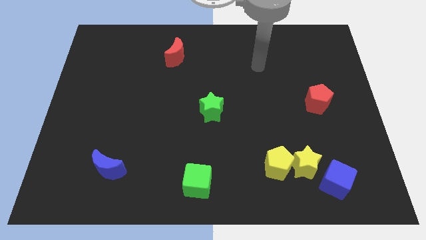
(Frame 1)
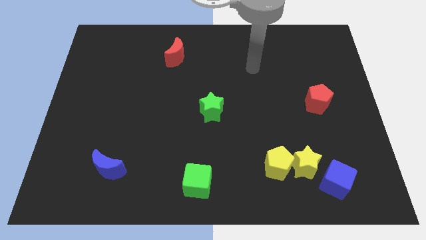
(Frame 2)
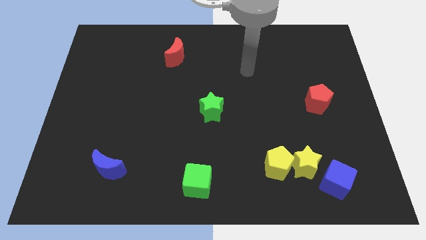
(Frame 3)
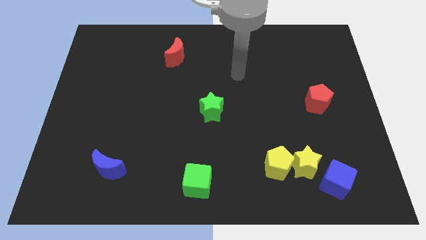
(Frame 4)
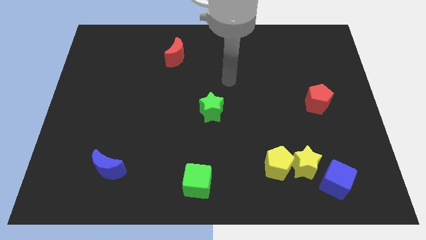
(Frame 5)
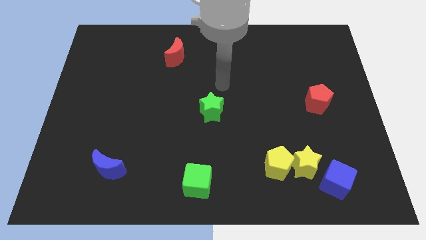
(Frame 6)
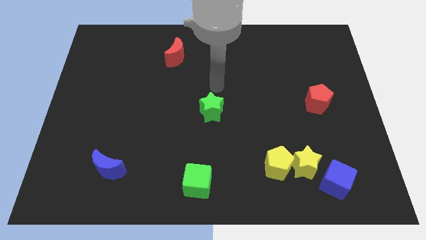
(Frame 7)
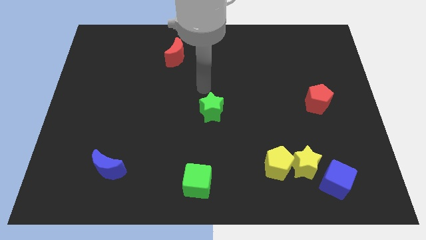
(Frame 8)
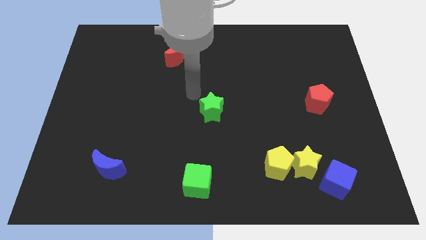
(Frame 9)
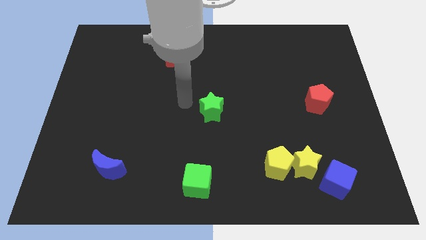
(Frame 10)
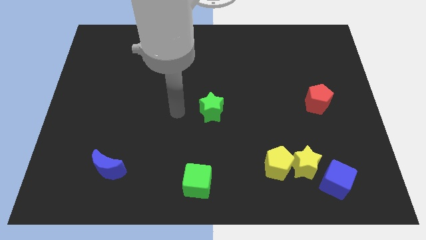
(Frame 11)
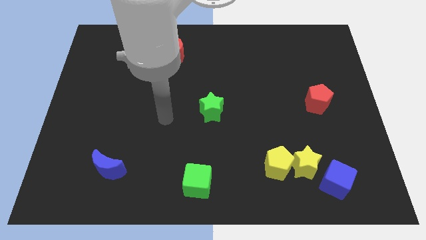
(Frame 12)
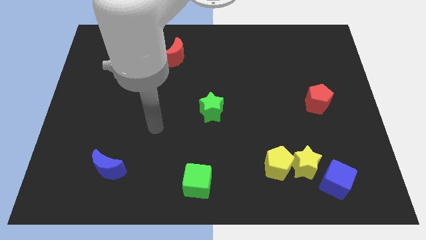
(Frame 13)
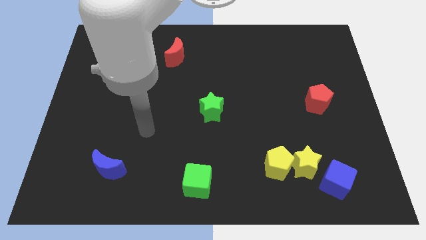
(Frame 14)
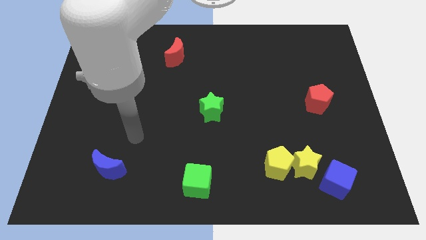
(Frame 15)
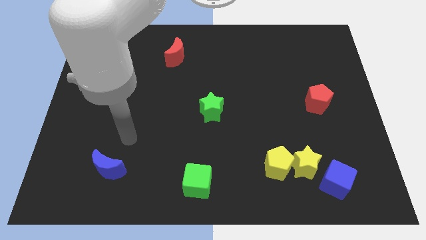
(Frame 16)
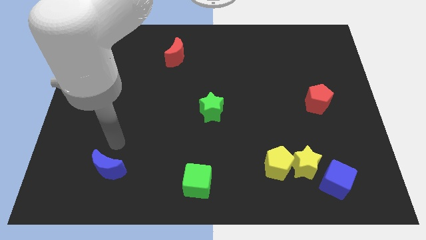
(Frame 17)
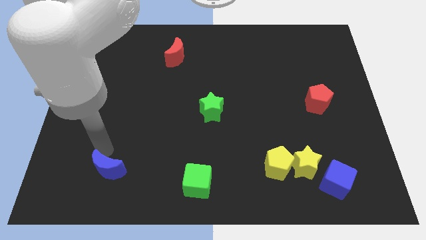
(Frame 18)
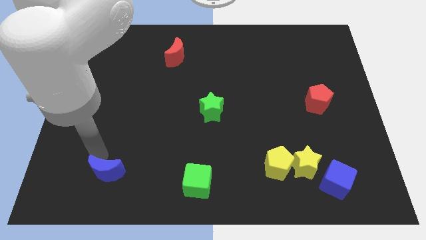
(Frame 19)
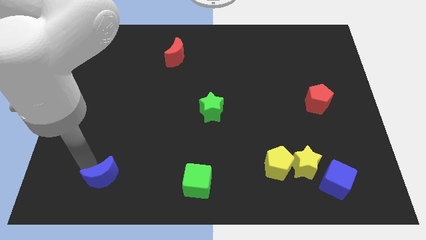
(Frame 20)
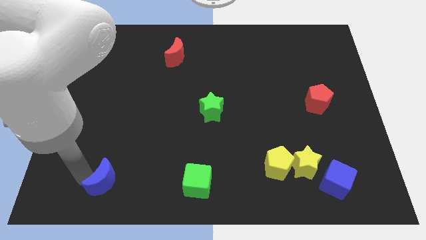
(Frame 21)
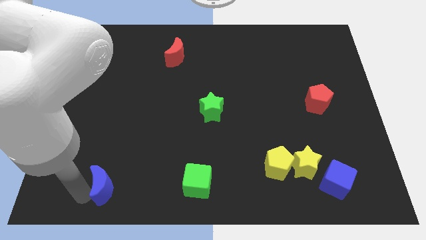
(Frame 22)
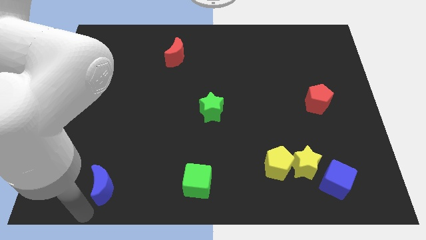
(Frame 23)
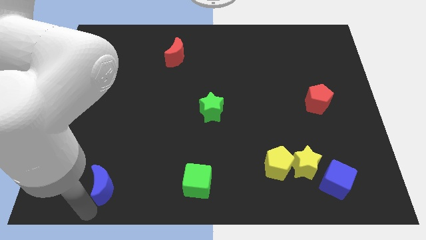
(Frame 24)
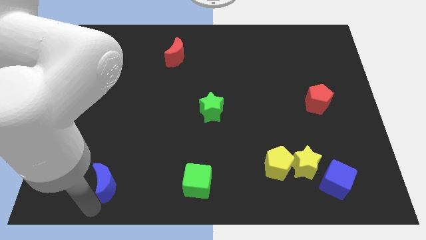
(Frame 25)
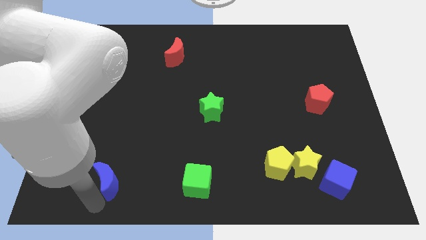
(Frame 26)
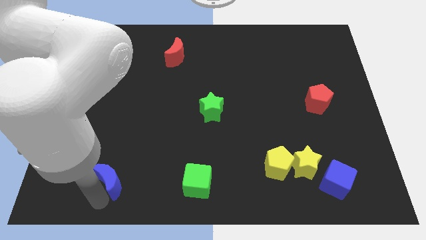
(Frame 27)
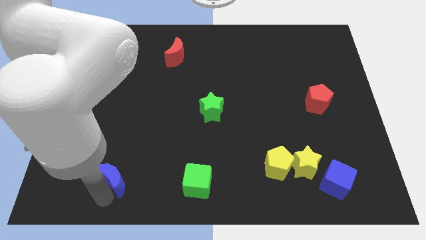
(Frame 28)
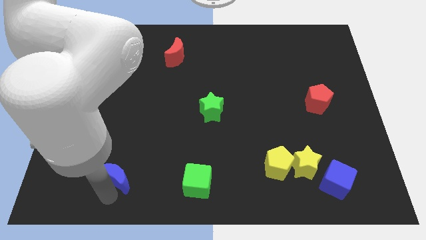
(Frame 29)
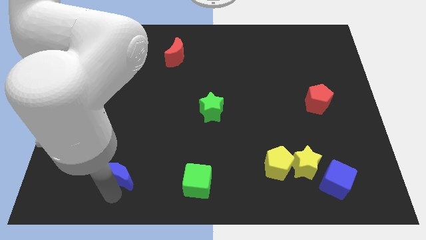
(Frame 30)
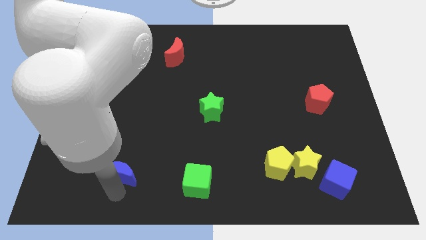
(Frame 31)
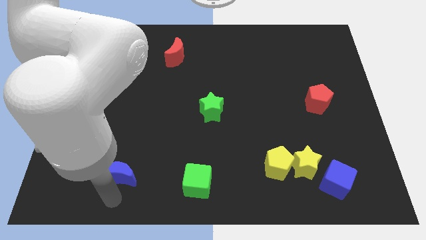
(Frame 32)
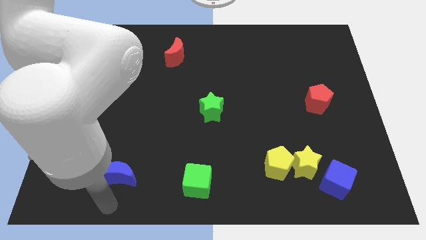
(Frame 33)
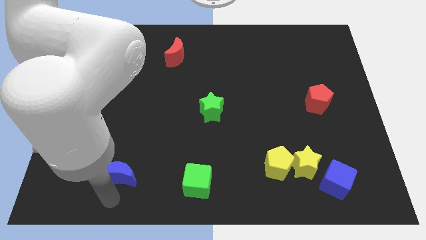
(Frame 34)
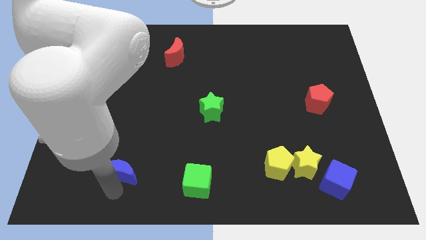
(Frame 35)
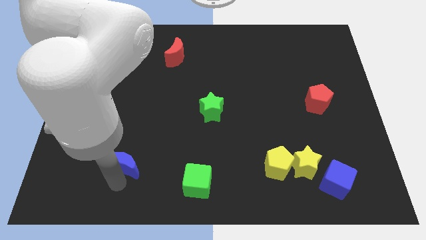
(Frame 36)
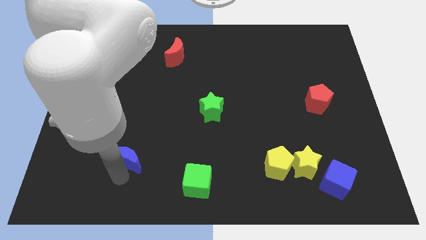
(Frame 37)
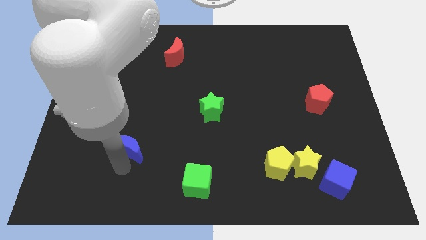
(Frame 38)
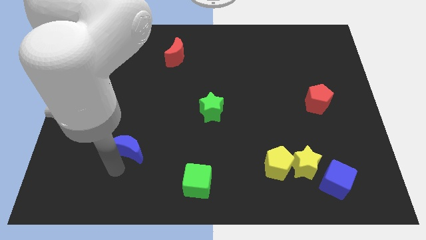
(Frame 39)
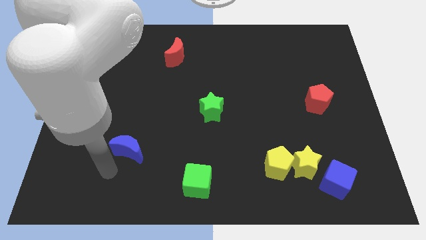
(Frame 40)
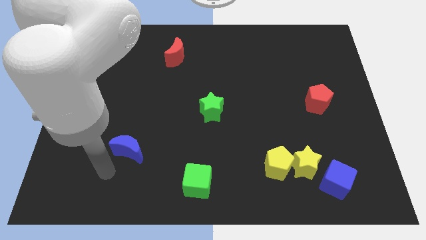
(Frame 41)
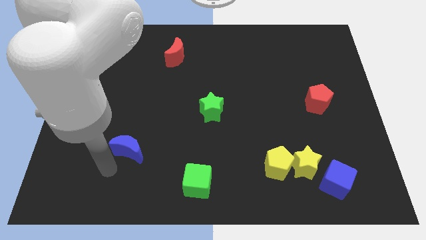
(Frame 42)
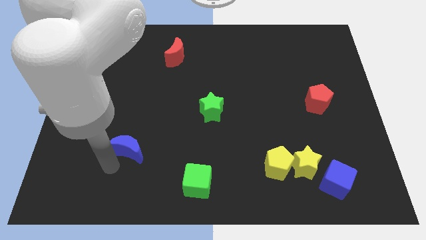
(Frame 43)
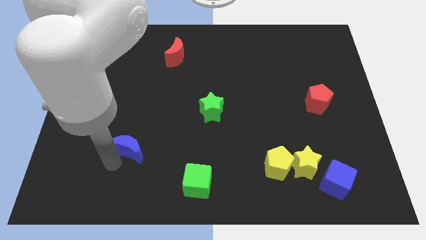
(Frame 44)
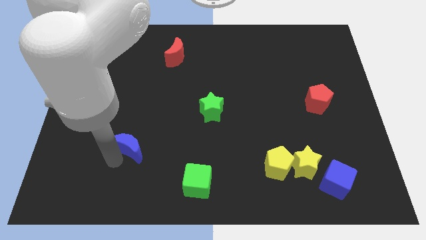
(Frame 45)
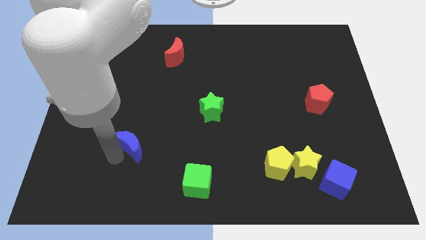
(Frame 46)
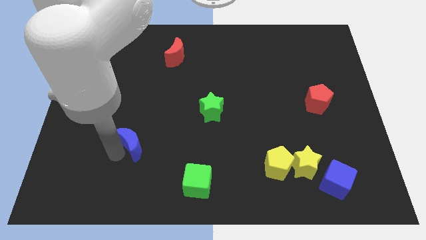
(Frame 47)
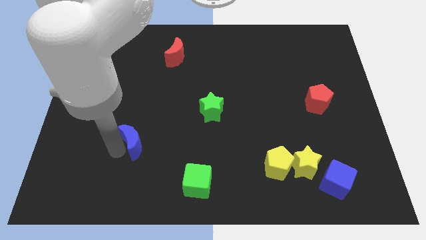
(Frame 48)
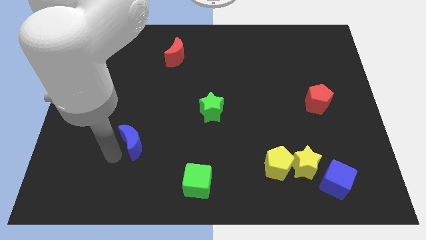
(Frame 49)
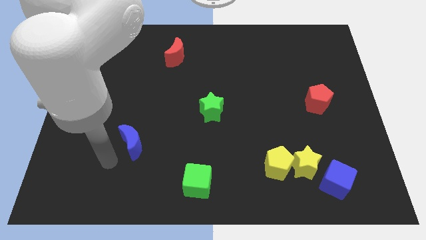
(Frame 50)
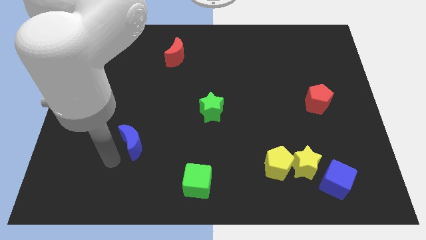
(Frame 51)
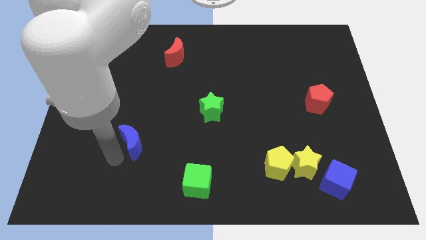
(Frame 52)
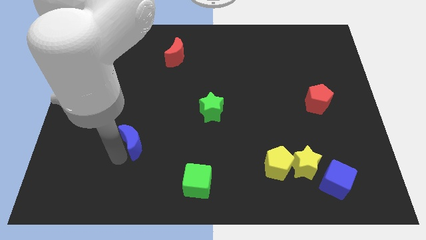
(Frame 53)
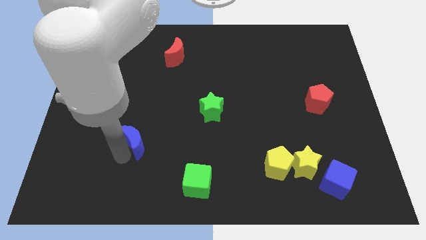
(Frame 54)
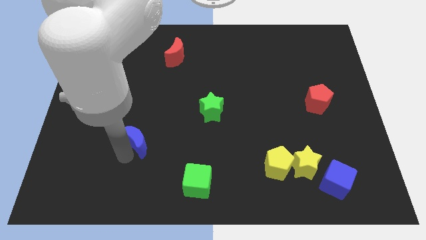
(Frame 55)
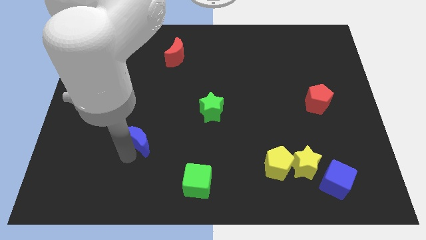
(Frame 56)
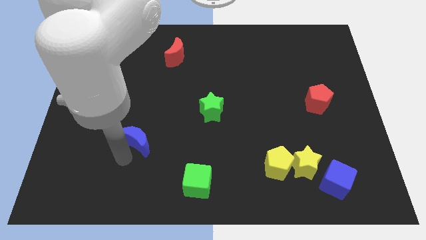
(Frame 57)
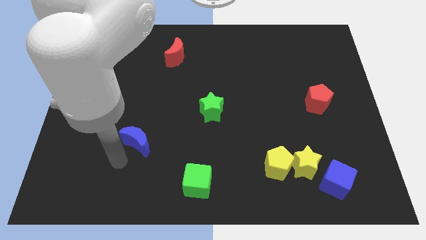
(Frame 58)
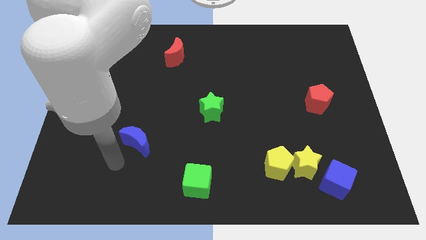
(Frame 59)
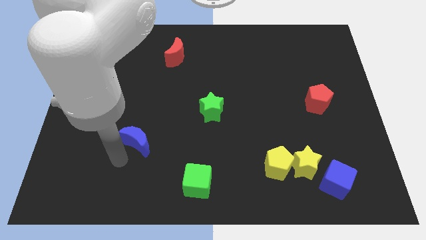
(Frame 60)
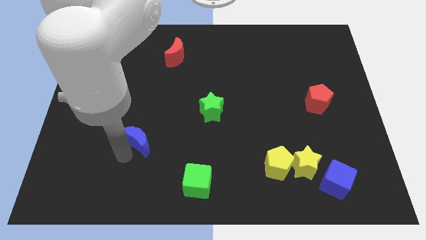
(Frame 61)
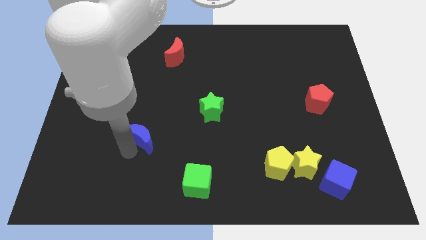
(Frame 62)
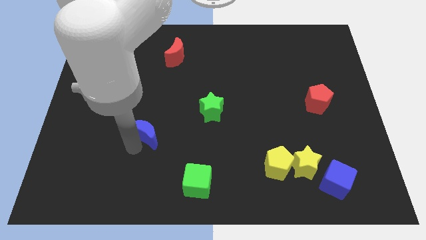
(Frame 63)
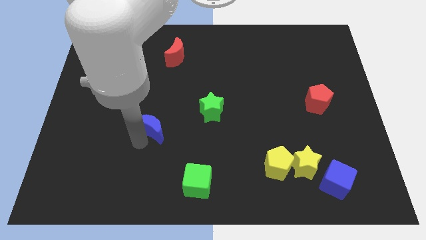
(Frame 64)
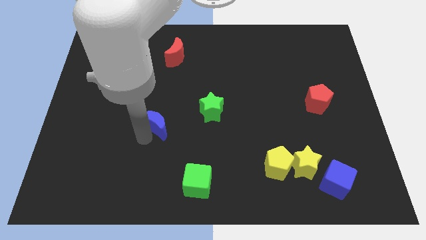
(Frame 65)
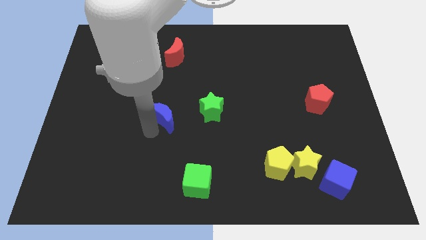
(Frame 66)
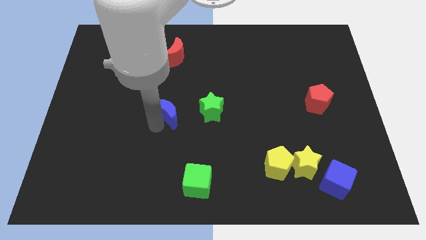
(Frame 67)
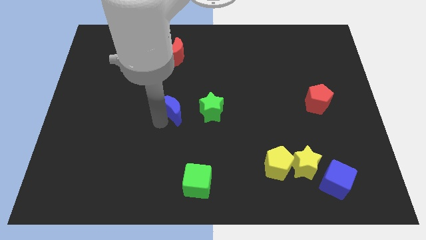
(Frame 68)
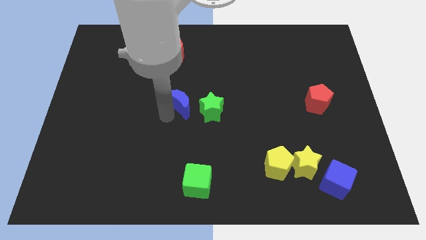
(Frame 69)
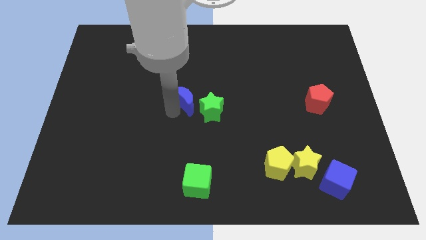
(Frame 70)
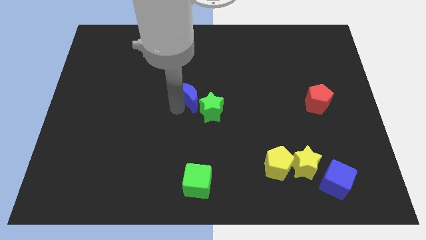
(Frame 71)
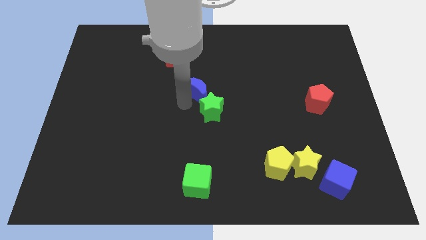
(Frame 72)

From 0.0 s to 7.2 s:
put the blue moon above the green star
